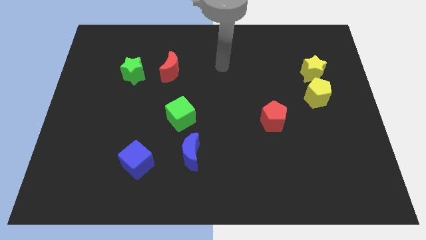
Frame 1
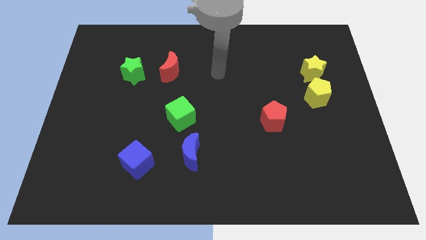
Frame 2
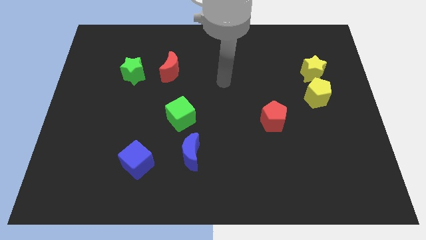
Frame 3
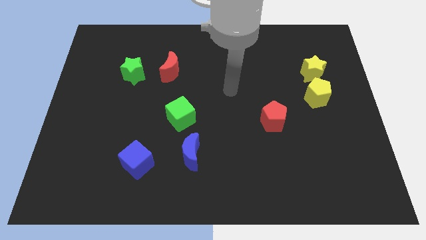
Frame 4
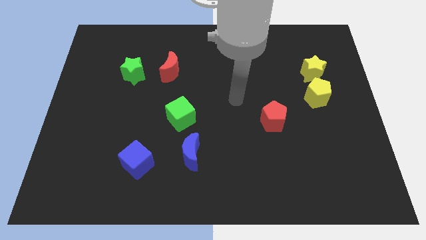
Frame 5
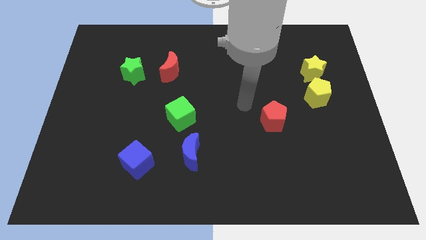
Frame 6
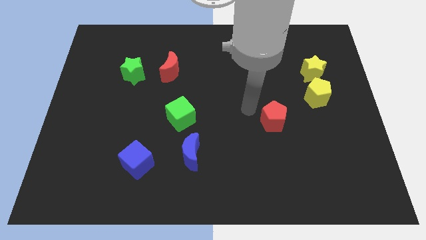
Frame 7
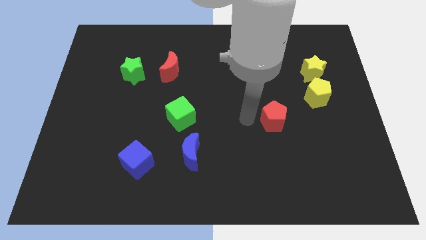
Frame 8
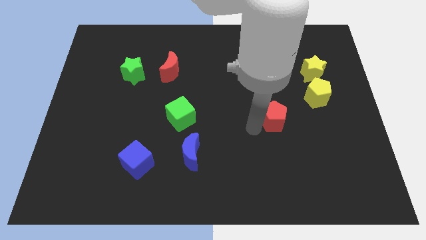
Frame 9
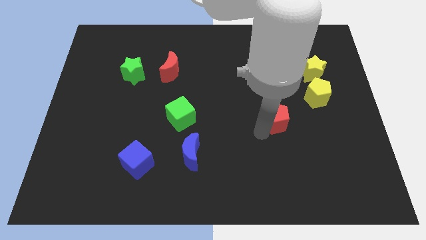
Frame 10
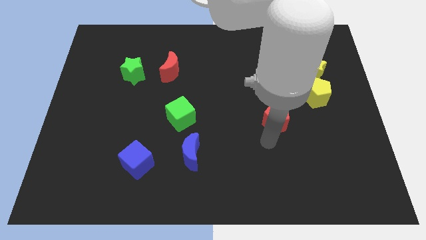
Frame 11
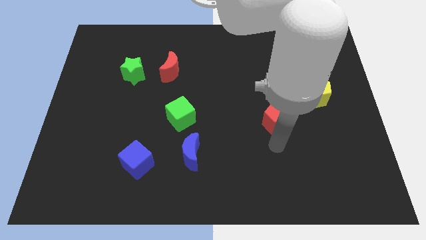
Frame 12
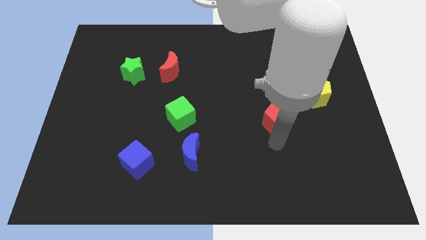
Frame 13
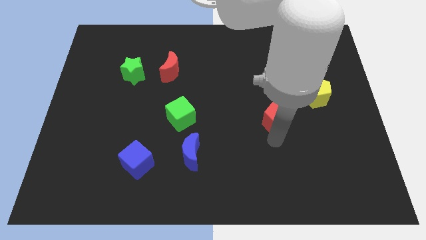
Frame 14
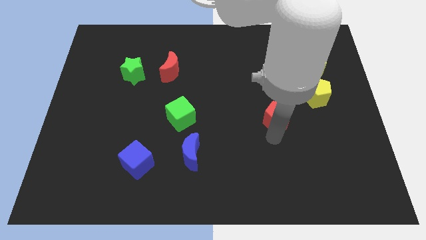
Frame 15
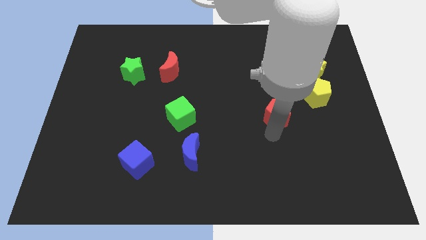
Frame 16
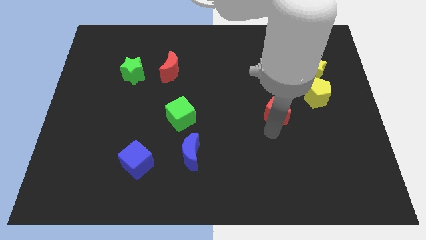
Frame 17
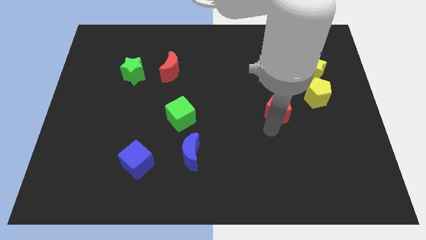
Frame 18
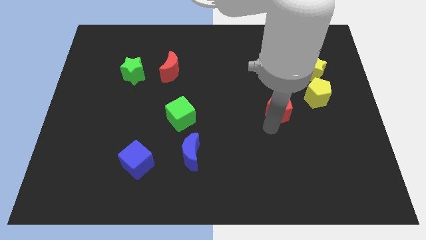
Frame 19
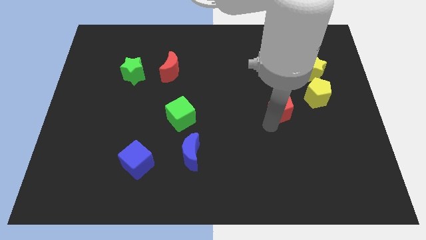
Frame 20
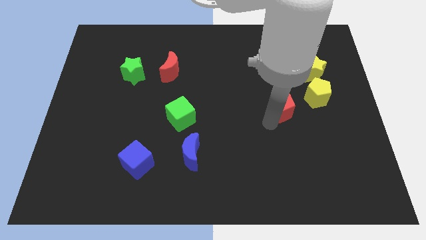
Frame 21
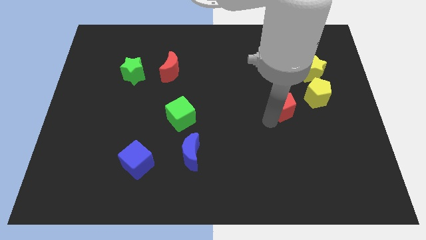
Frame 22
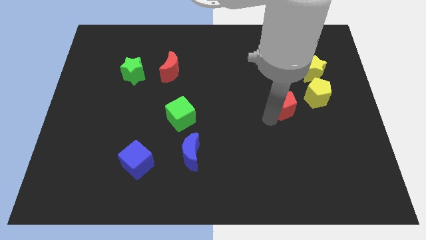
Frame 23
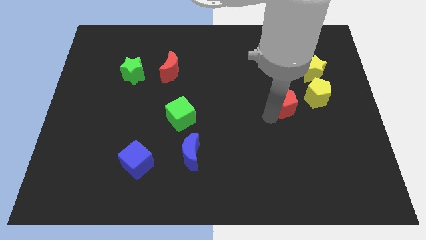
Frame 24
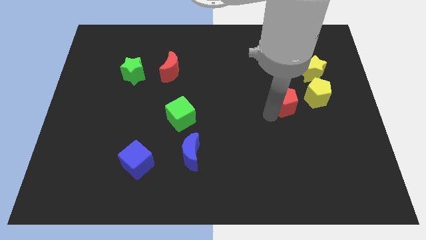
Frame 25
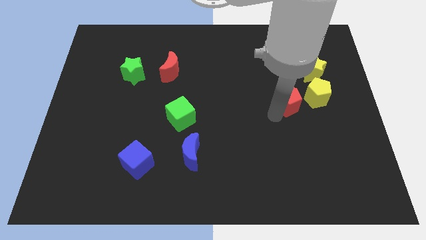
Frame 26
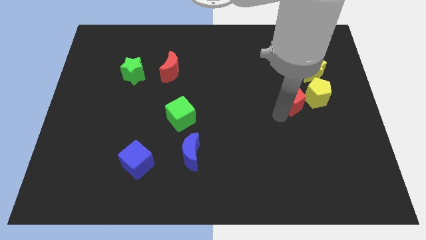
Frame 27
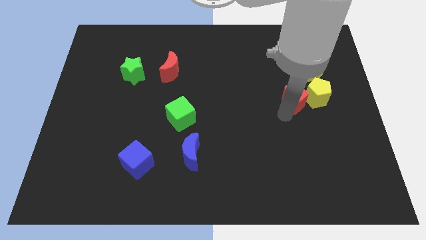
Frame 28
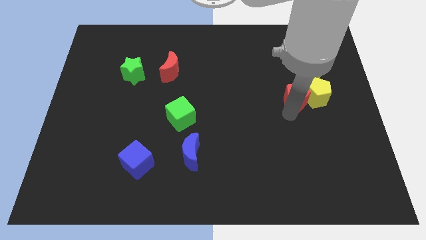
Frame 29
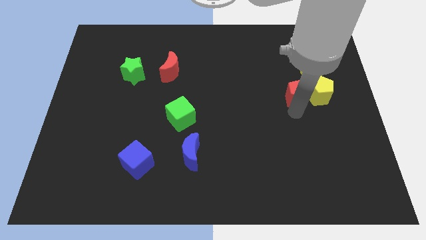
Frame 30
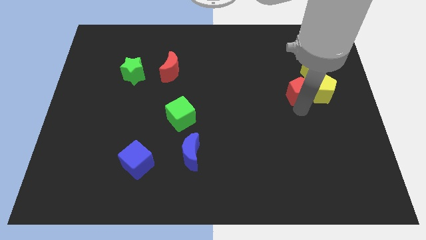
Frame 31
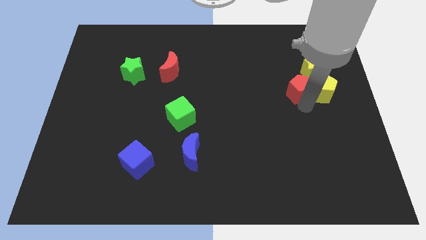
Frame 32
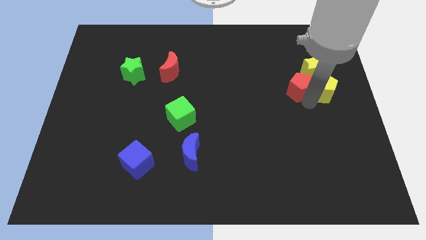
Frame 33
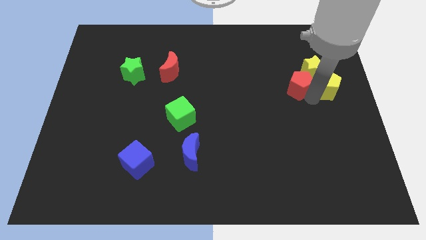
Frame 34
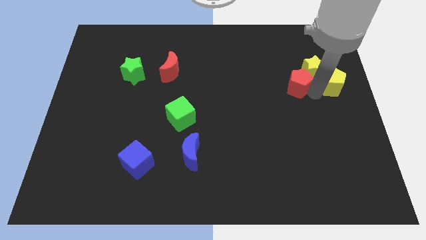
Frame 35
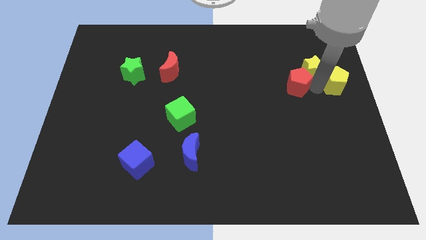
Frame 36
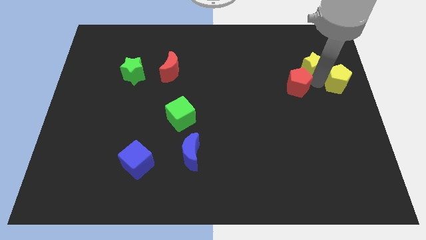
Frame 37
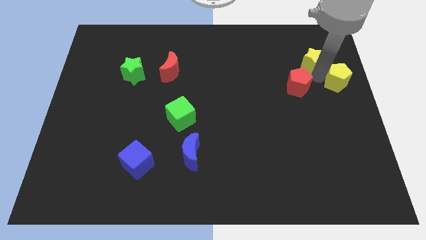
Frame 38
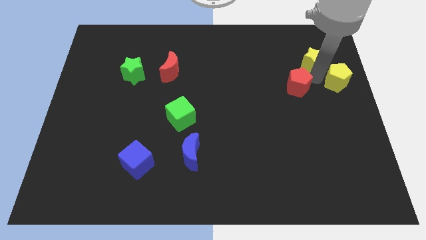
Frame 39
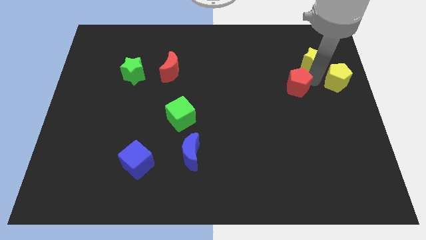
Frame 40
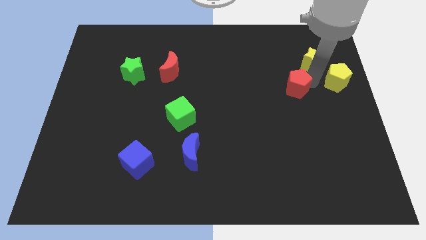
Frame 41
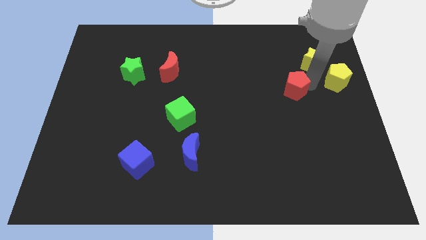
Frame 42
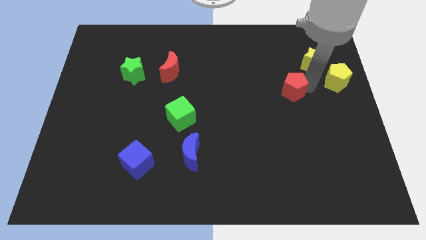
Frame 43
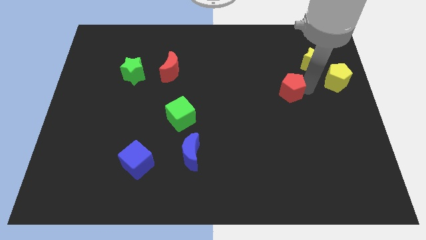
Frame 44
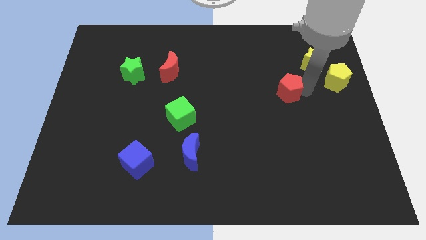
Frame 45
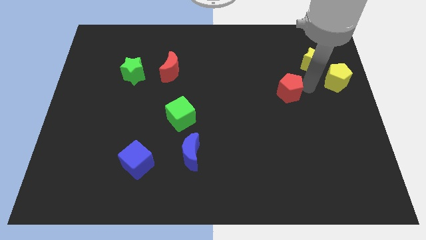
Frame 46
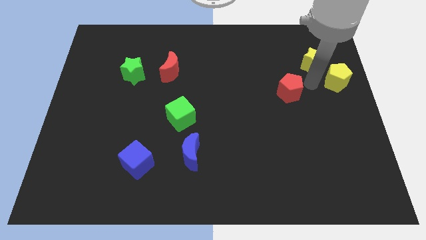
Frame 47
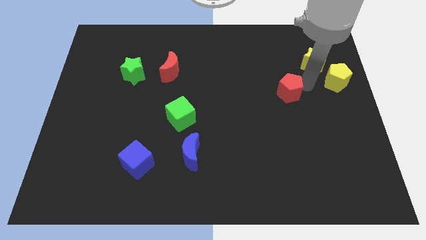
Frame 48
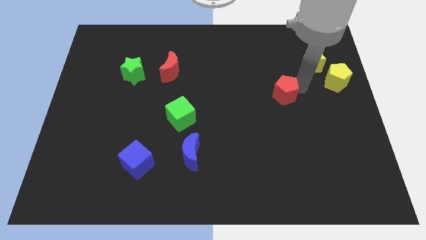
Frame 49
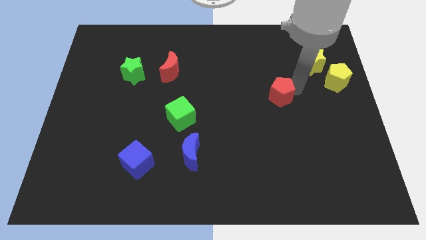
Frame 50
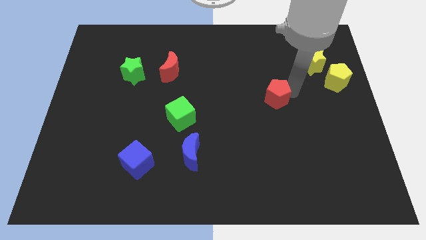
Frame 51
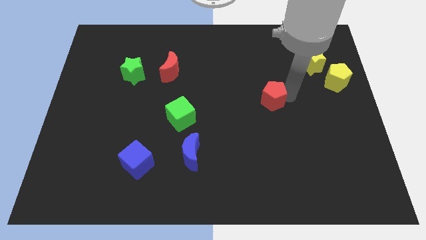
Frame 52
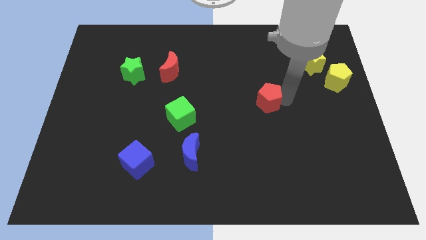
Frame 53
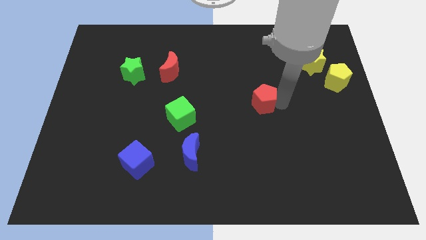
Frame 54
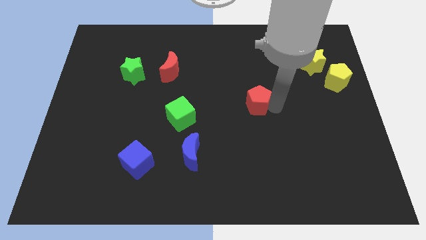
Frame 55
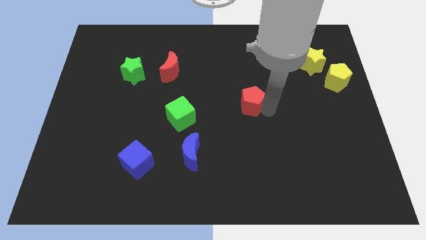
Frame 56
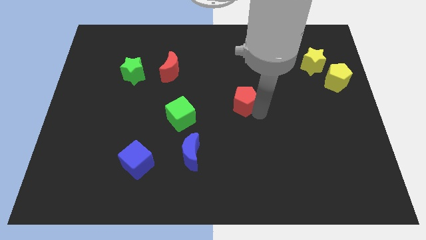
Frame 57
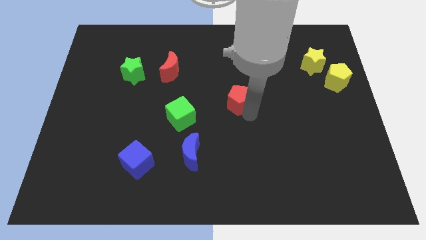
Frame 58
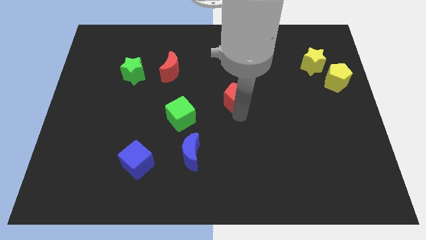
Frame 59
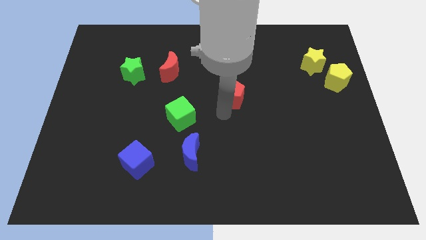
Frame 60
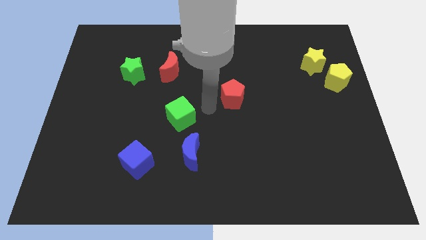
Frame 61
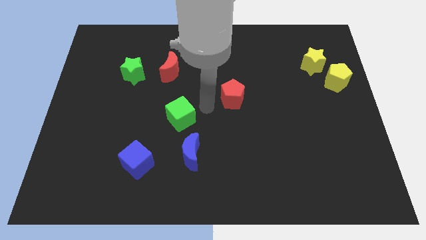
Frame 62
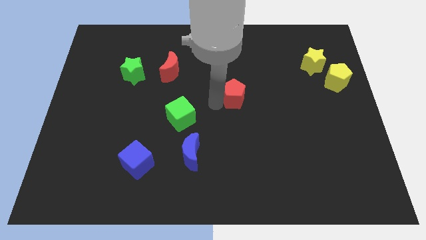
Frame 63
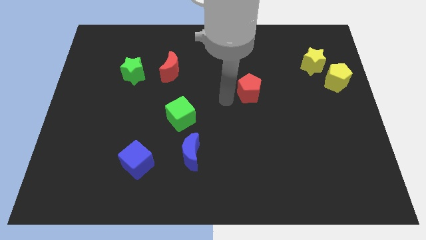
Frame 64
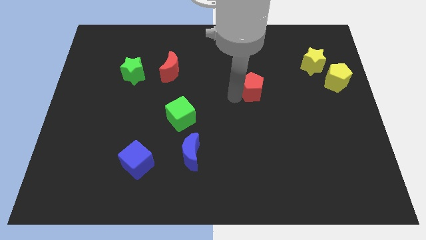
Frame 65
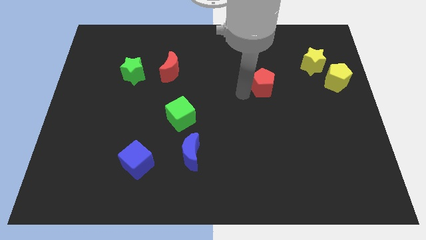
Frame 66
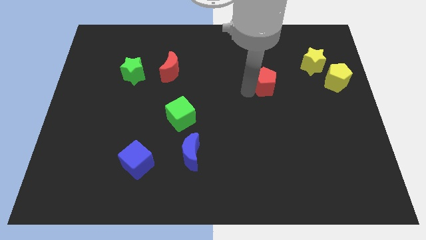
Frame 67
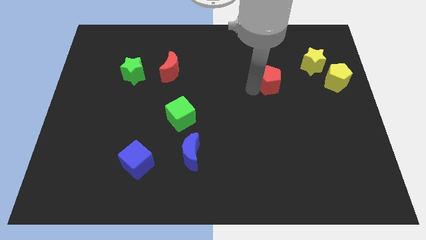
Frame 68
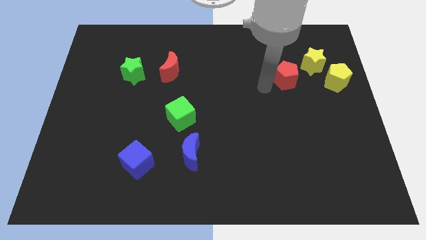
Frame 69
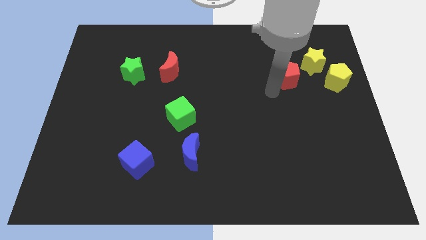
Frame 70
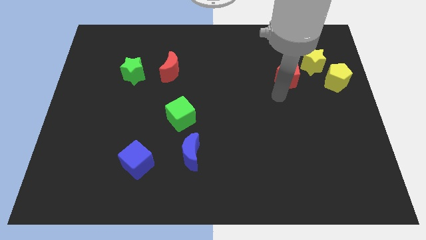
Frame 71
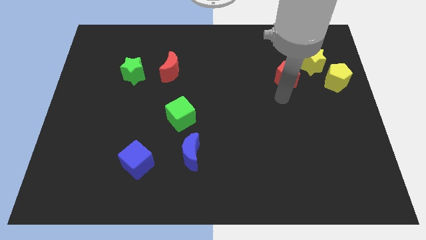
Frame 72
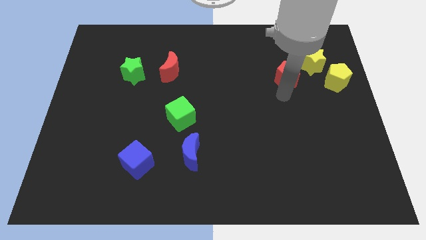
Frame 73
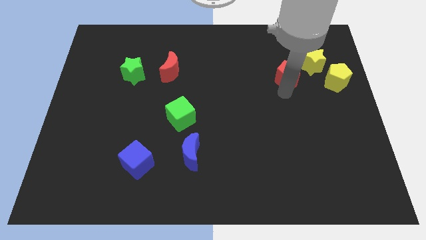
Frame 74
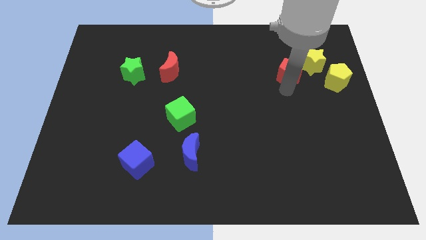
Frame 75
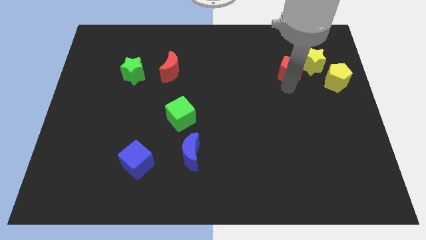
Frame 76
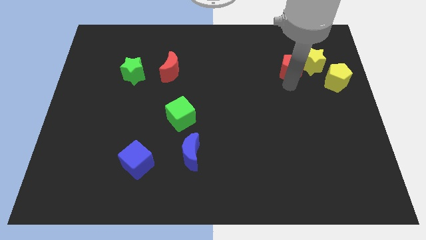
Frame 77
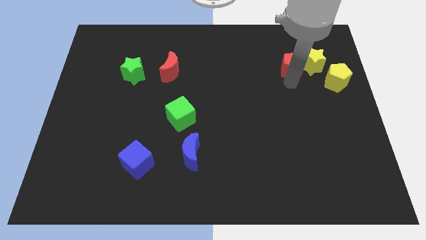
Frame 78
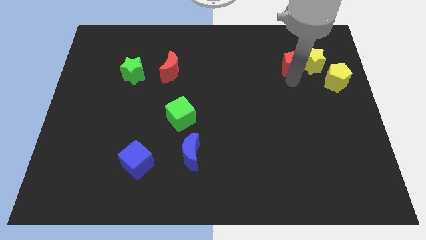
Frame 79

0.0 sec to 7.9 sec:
slide the red pentagon to the top left side of the yellow star
